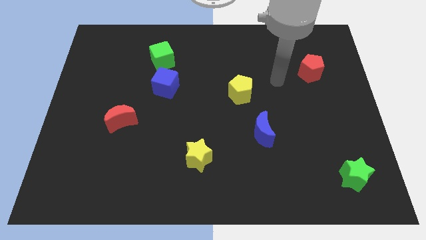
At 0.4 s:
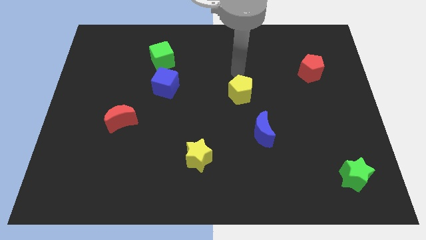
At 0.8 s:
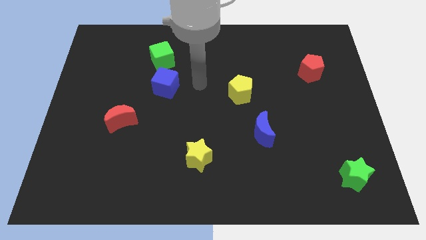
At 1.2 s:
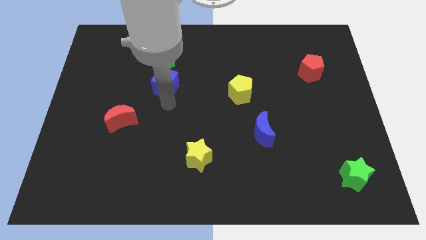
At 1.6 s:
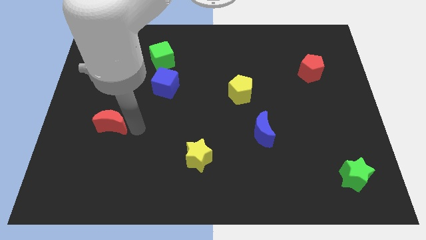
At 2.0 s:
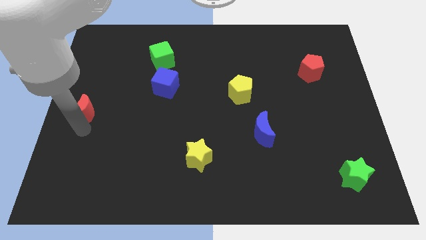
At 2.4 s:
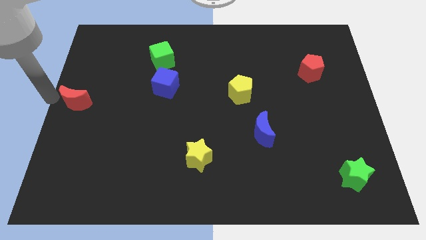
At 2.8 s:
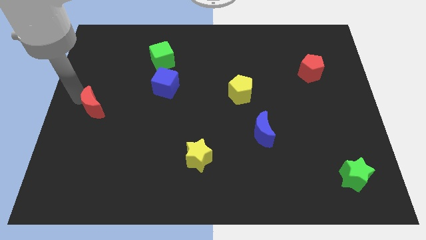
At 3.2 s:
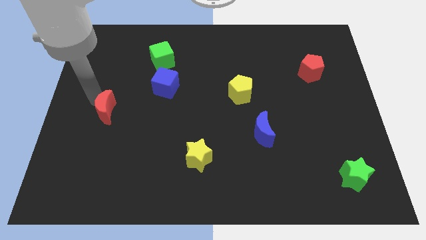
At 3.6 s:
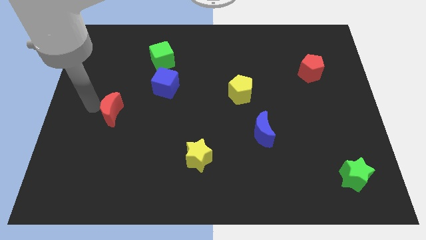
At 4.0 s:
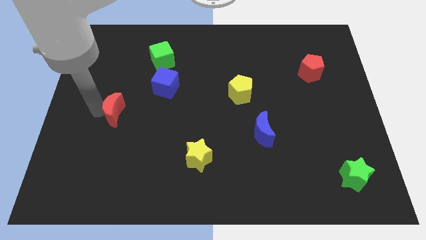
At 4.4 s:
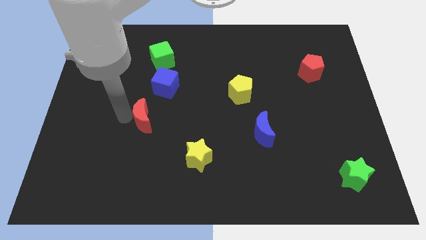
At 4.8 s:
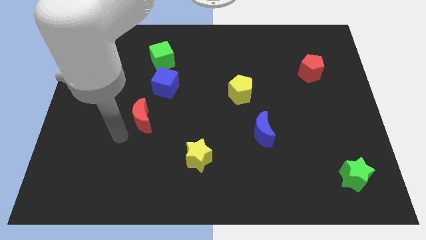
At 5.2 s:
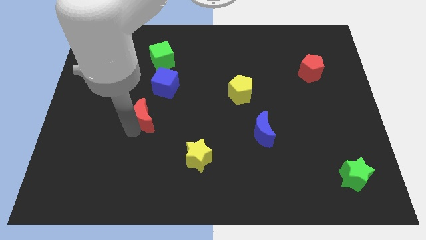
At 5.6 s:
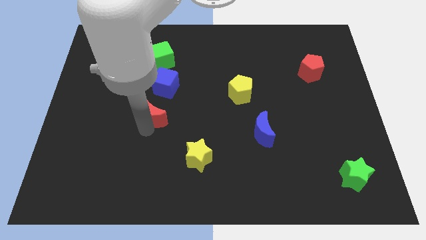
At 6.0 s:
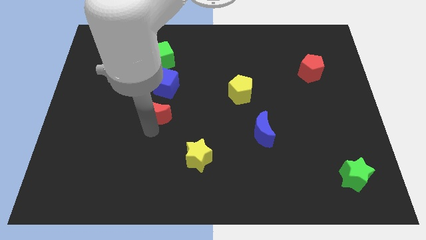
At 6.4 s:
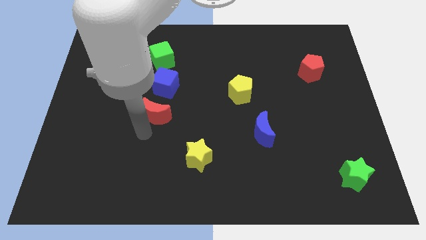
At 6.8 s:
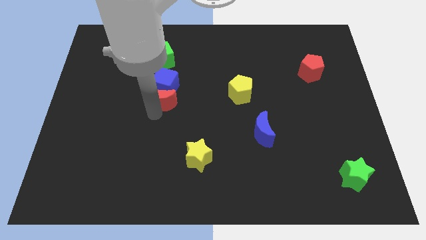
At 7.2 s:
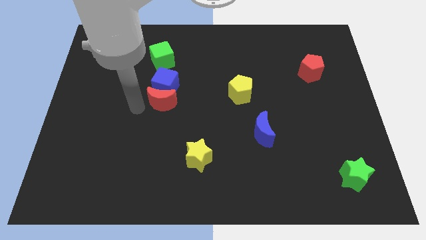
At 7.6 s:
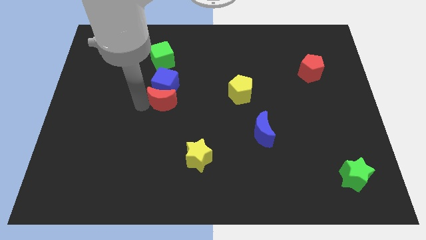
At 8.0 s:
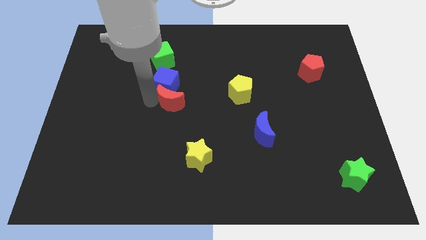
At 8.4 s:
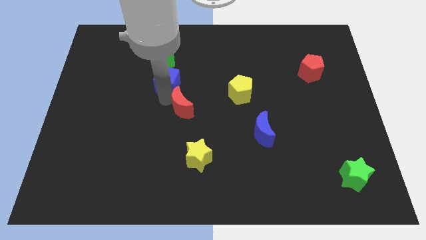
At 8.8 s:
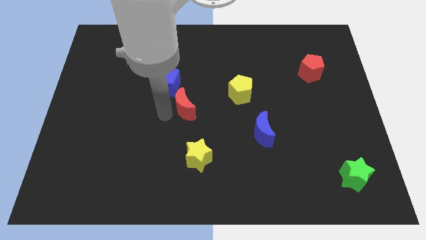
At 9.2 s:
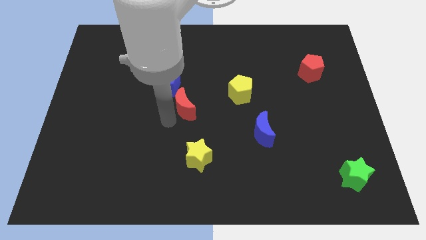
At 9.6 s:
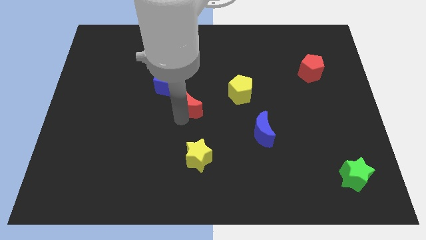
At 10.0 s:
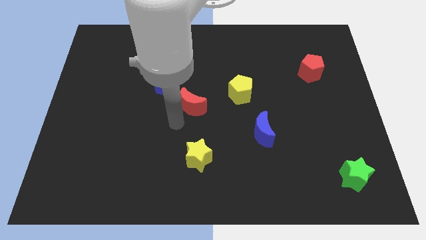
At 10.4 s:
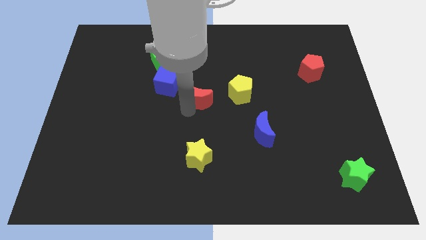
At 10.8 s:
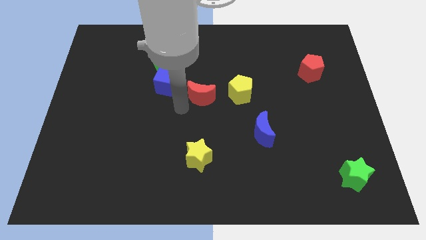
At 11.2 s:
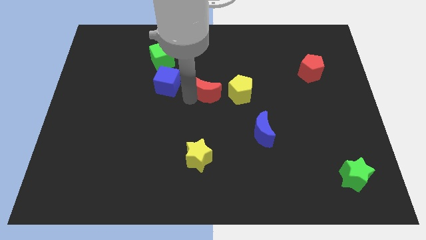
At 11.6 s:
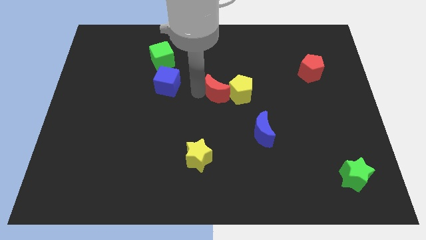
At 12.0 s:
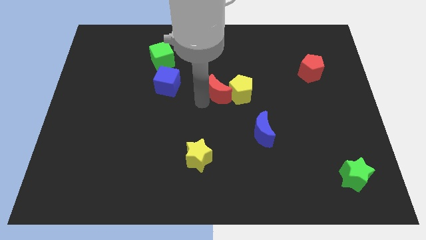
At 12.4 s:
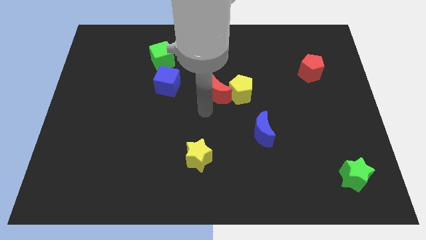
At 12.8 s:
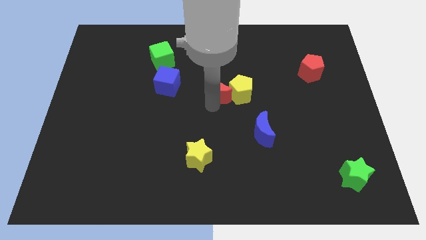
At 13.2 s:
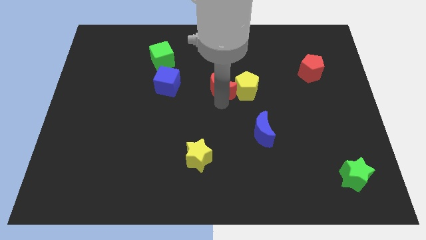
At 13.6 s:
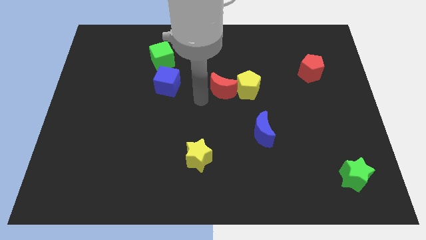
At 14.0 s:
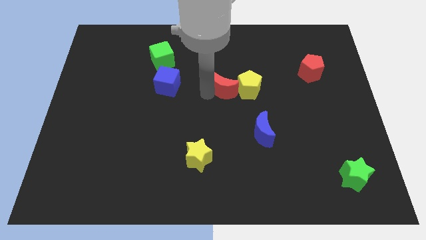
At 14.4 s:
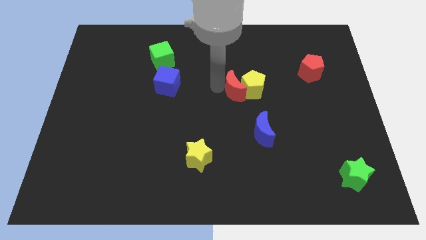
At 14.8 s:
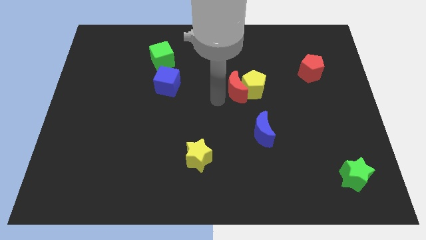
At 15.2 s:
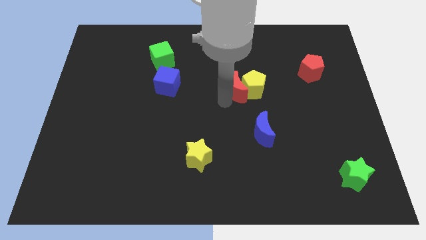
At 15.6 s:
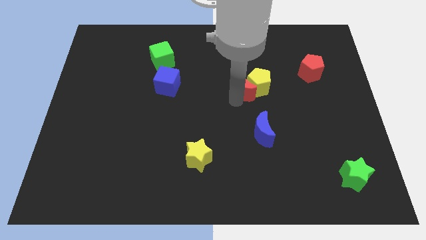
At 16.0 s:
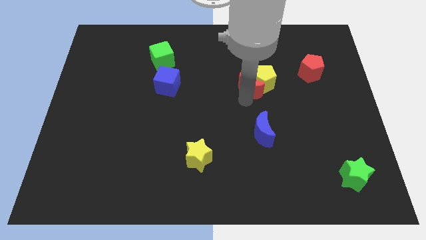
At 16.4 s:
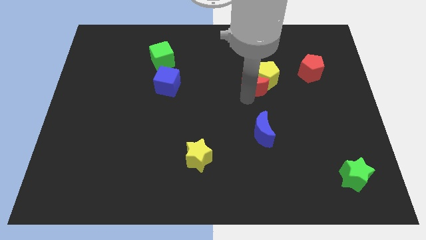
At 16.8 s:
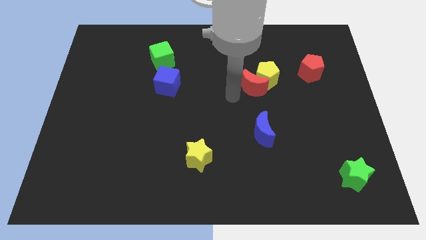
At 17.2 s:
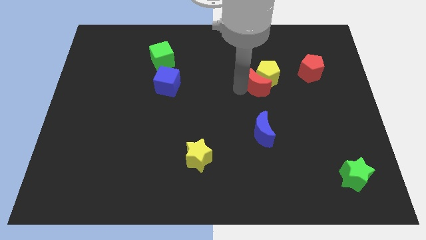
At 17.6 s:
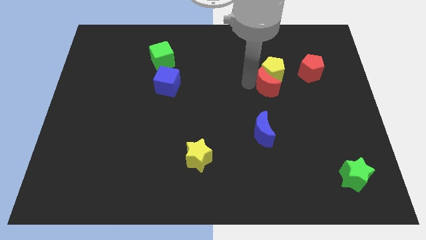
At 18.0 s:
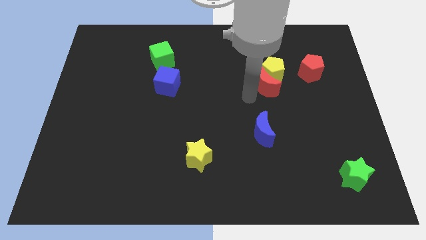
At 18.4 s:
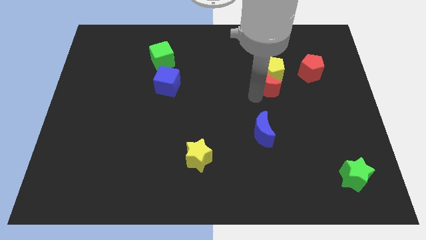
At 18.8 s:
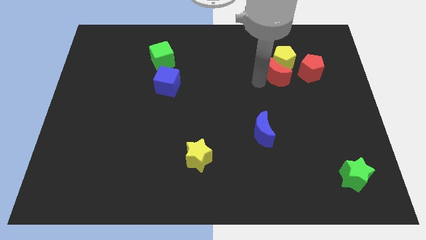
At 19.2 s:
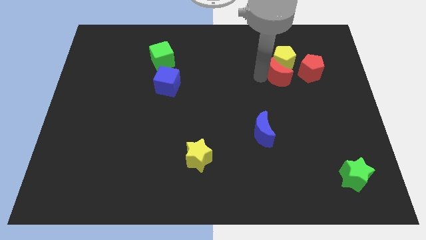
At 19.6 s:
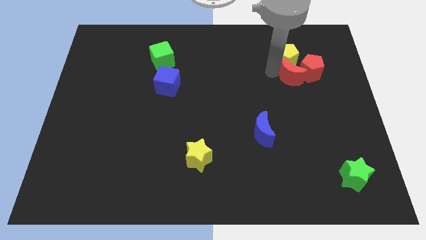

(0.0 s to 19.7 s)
put the red moon close to the red pentagon

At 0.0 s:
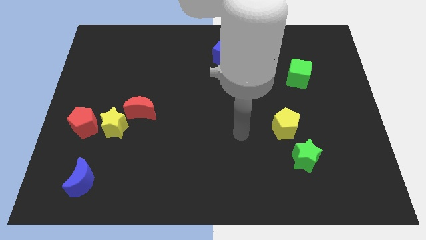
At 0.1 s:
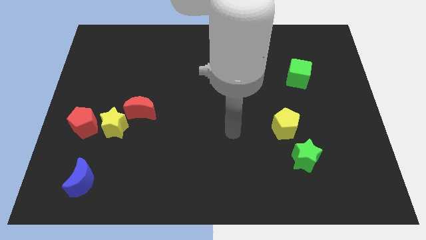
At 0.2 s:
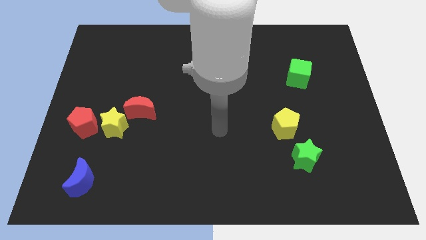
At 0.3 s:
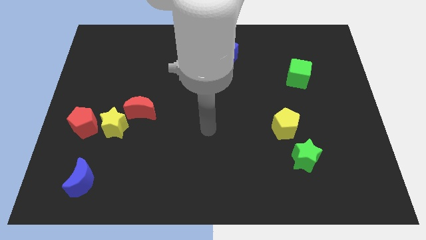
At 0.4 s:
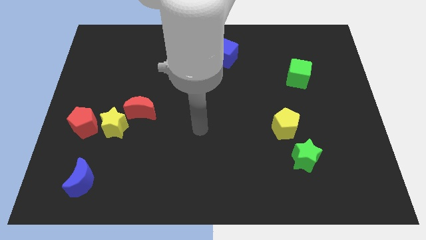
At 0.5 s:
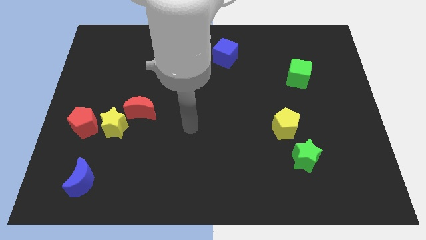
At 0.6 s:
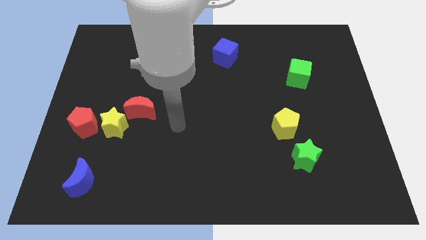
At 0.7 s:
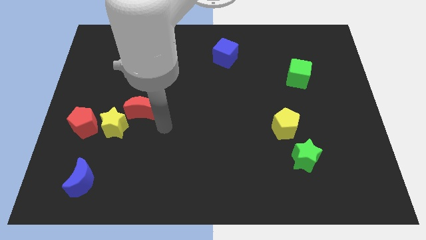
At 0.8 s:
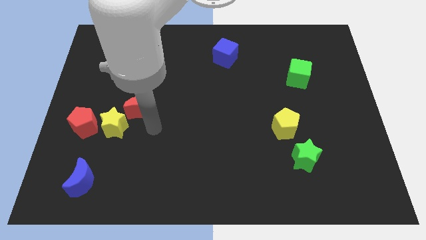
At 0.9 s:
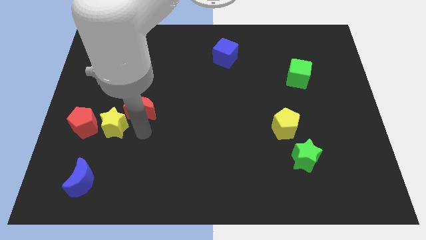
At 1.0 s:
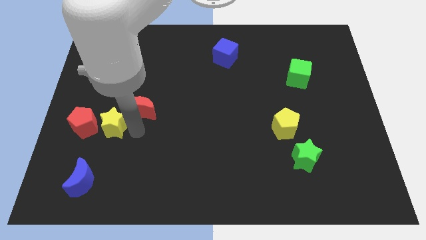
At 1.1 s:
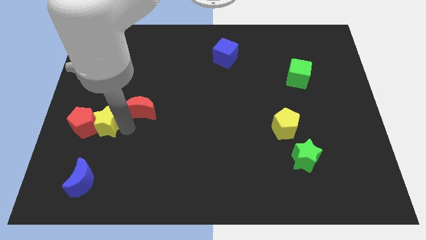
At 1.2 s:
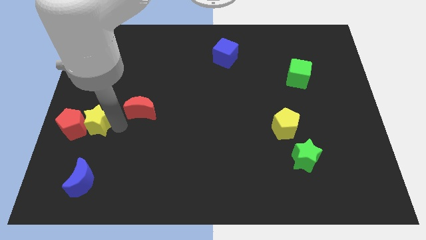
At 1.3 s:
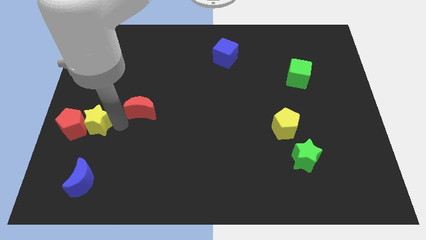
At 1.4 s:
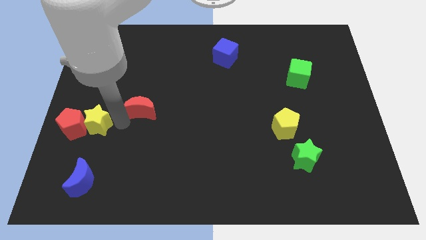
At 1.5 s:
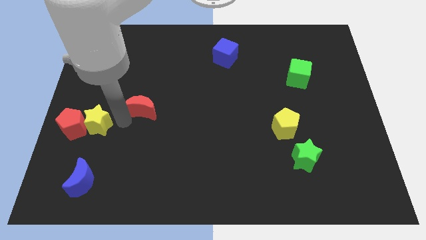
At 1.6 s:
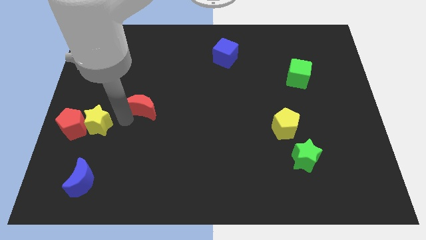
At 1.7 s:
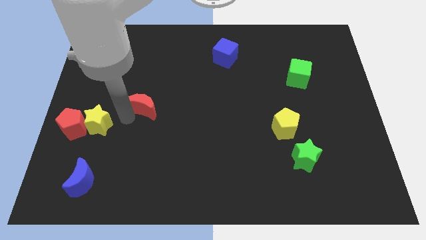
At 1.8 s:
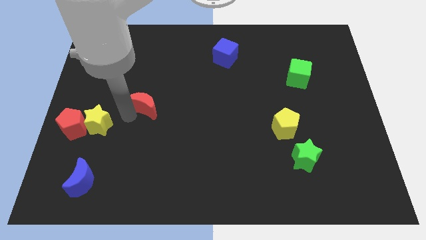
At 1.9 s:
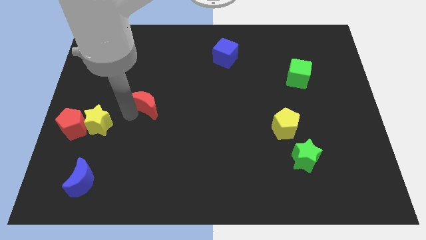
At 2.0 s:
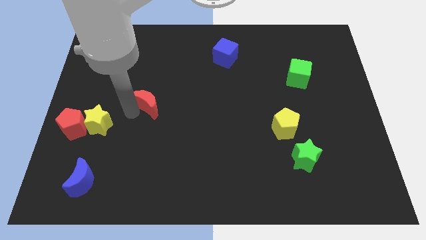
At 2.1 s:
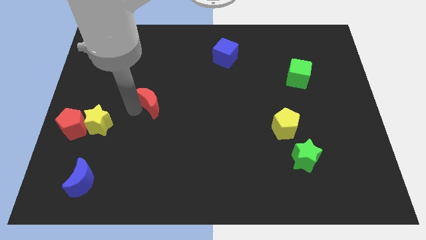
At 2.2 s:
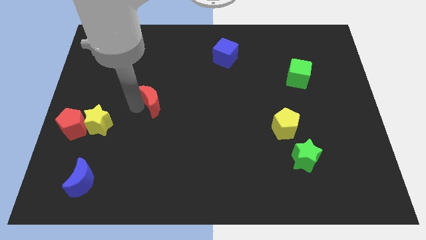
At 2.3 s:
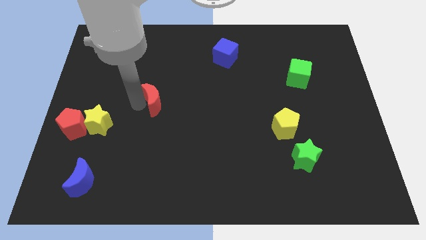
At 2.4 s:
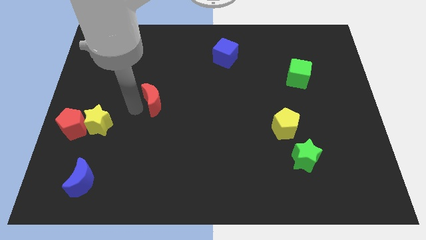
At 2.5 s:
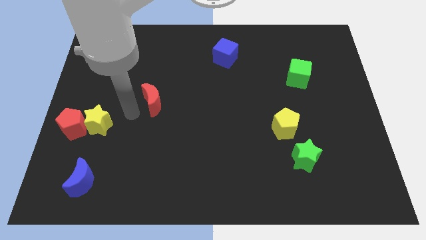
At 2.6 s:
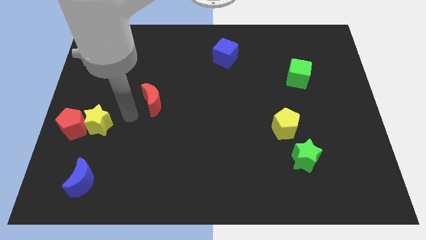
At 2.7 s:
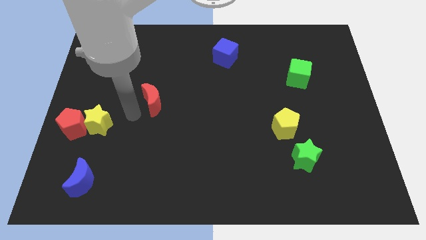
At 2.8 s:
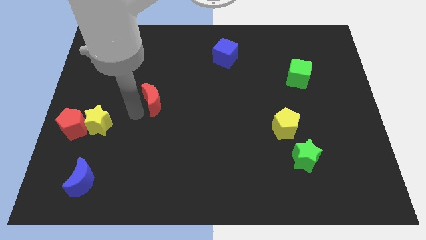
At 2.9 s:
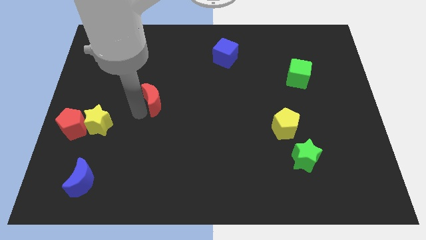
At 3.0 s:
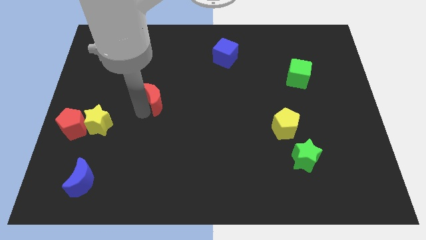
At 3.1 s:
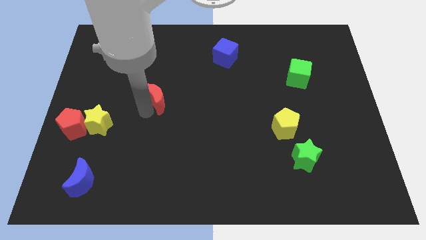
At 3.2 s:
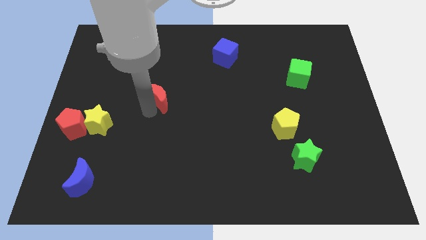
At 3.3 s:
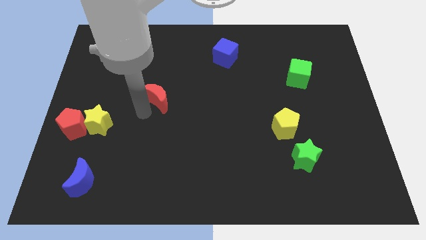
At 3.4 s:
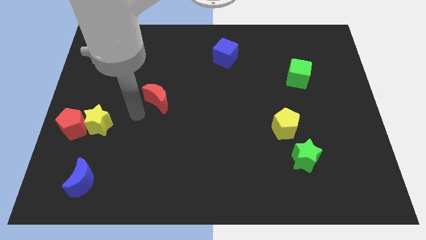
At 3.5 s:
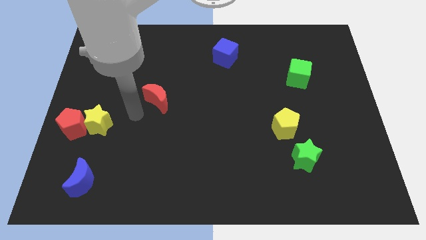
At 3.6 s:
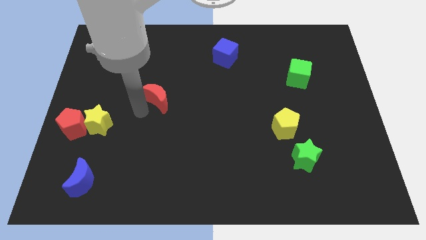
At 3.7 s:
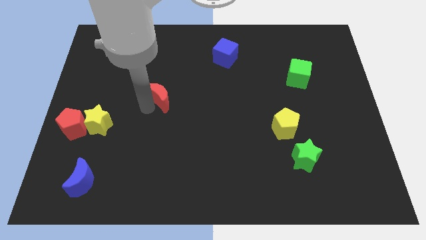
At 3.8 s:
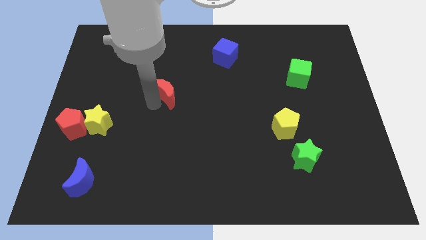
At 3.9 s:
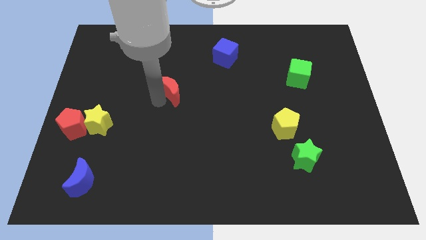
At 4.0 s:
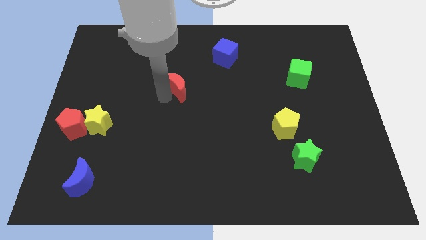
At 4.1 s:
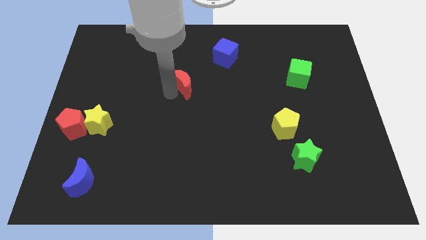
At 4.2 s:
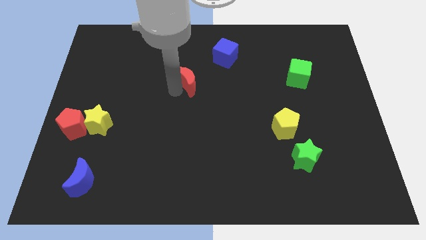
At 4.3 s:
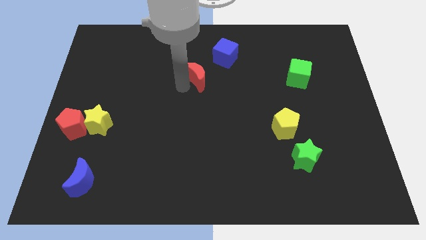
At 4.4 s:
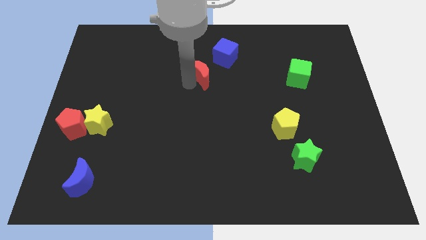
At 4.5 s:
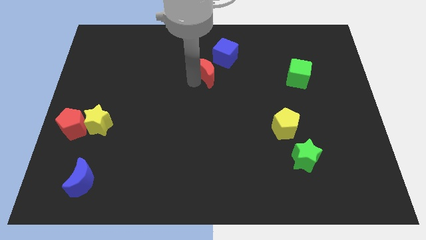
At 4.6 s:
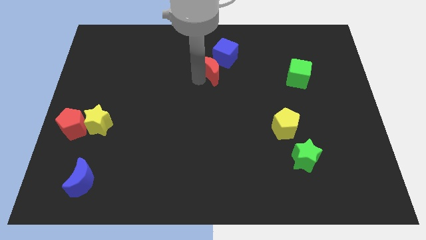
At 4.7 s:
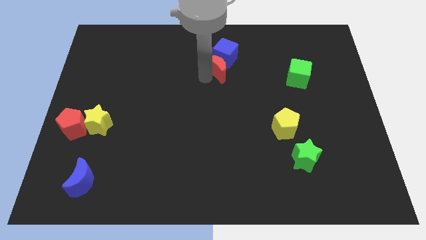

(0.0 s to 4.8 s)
push the red moon close to the blue cube
